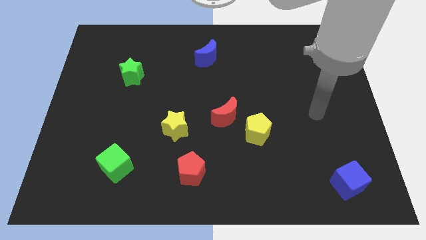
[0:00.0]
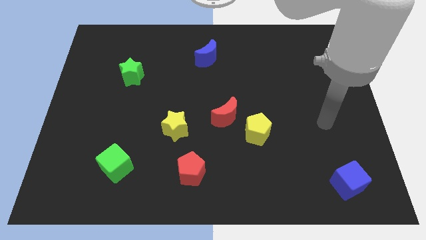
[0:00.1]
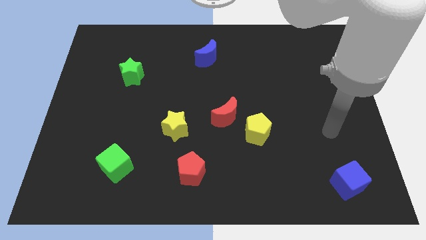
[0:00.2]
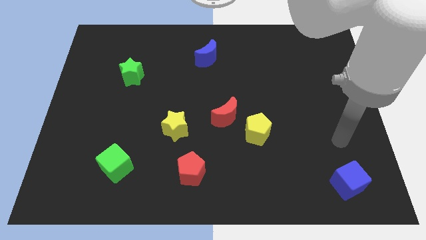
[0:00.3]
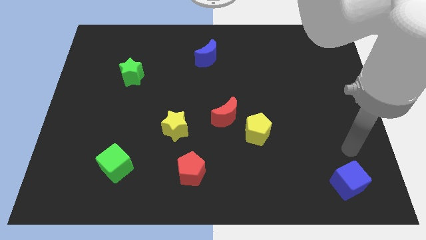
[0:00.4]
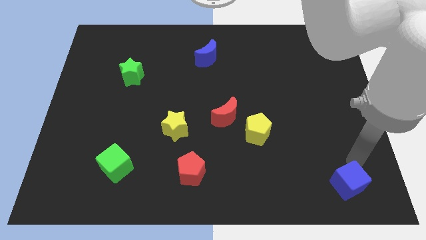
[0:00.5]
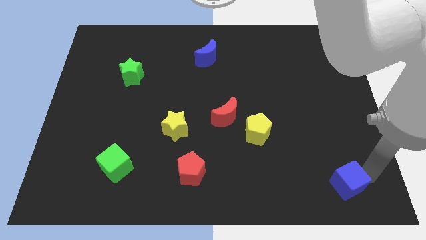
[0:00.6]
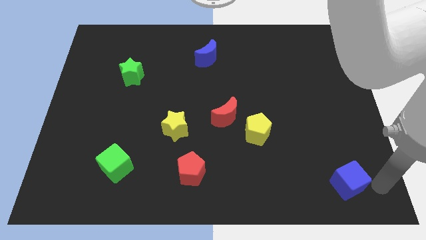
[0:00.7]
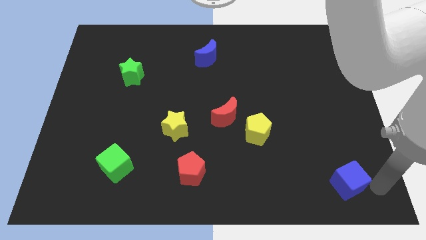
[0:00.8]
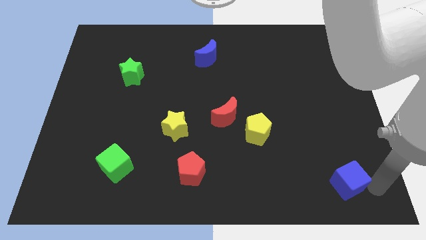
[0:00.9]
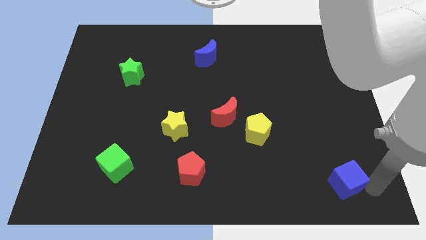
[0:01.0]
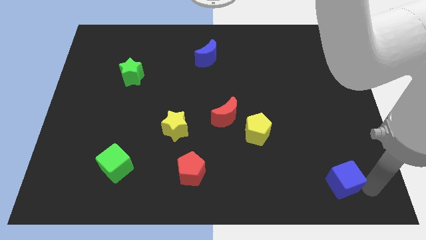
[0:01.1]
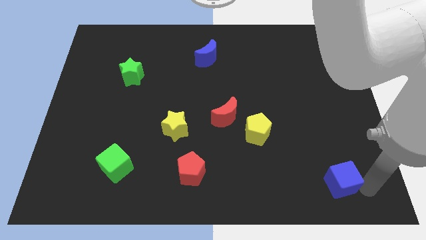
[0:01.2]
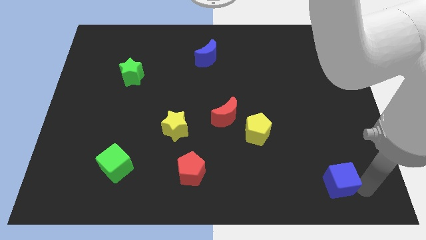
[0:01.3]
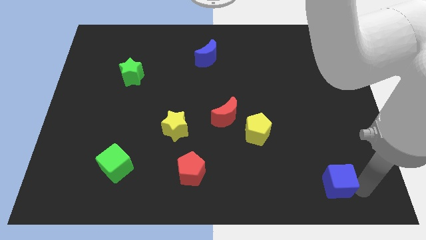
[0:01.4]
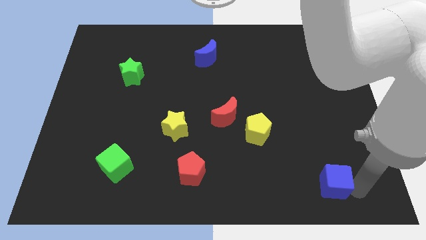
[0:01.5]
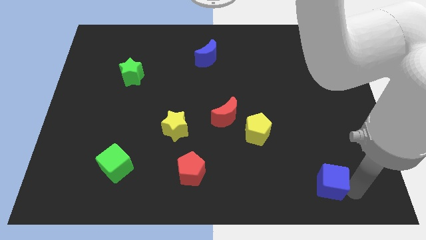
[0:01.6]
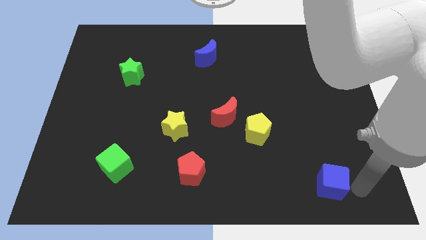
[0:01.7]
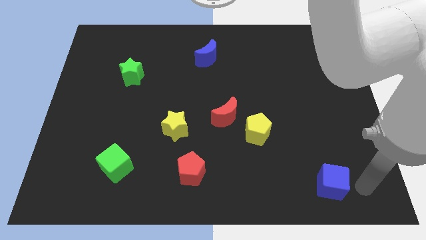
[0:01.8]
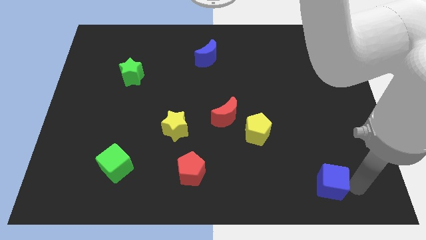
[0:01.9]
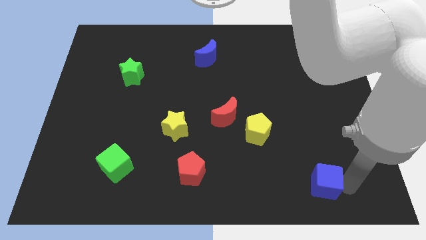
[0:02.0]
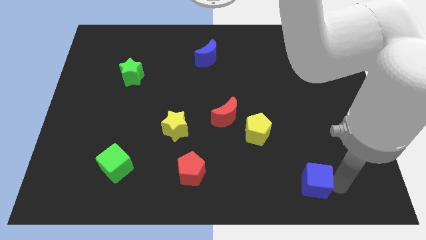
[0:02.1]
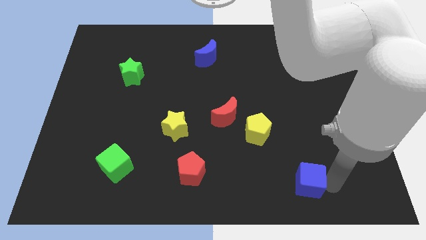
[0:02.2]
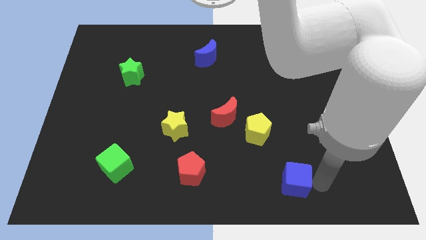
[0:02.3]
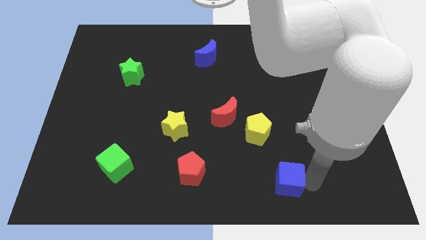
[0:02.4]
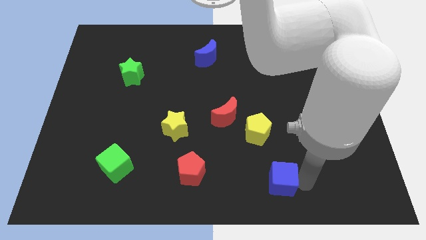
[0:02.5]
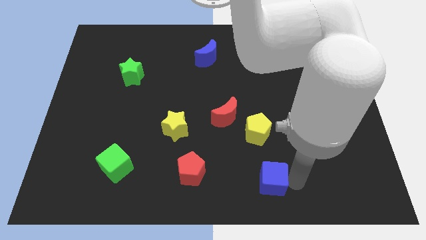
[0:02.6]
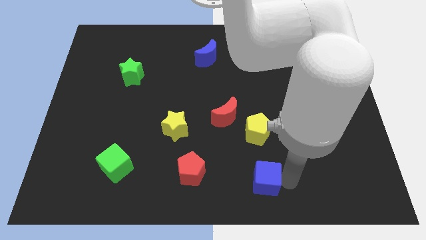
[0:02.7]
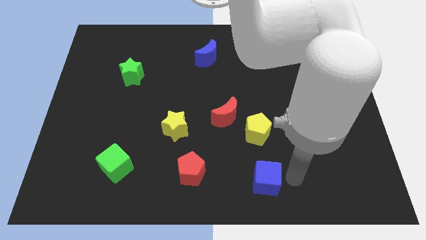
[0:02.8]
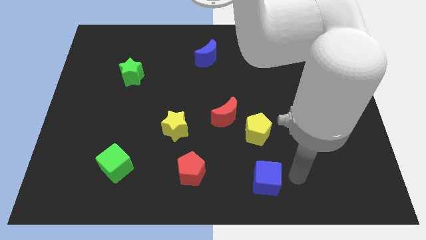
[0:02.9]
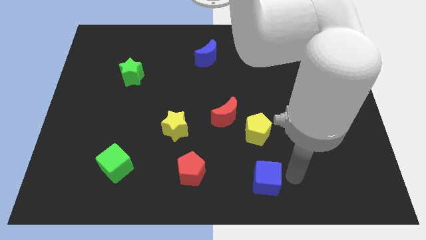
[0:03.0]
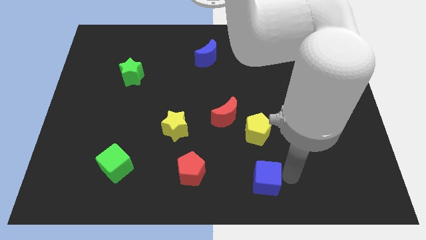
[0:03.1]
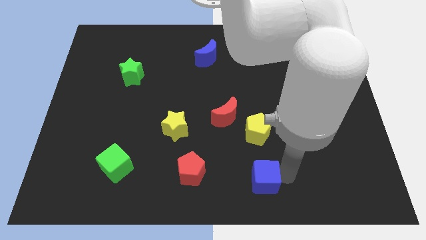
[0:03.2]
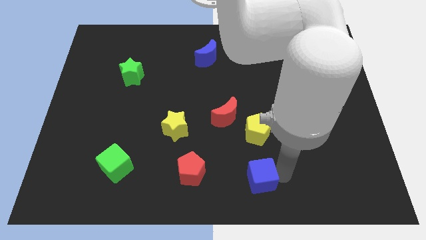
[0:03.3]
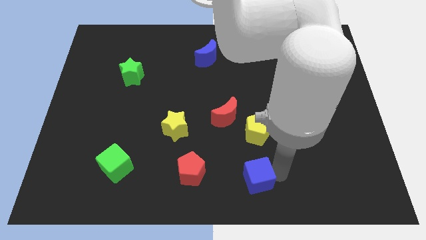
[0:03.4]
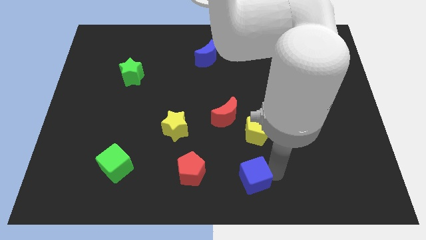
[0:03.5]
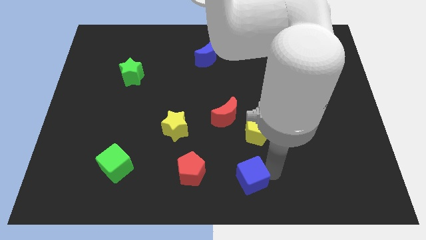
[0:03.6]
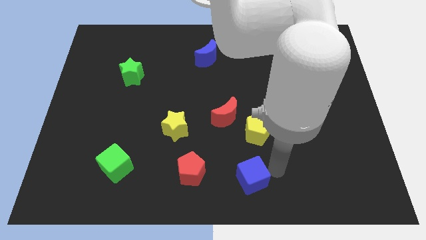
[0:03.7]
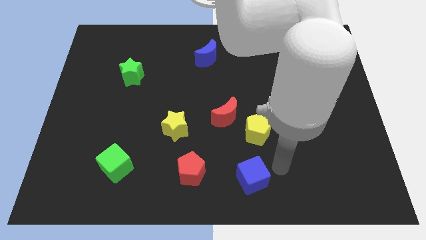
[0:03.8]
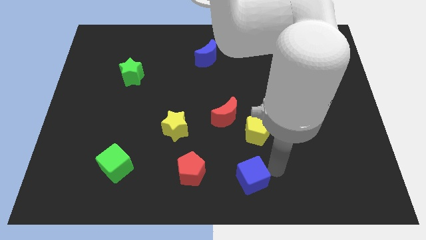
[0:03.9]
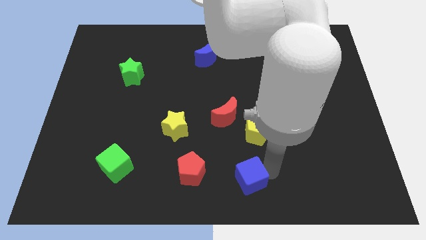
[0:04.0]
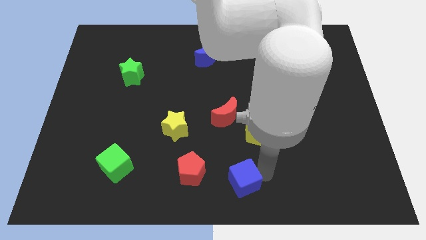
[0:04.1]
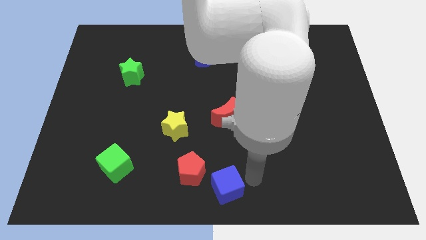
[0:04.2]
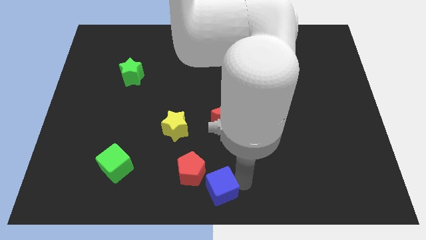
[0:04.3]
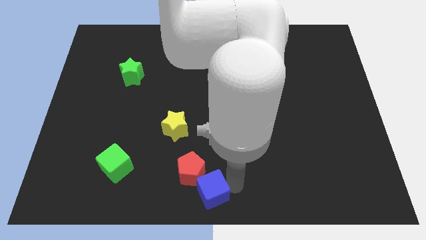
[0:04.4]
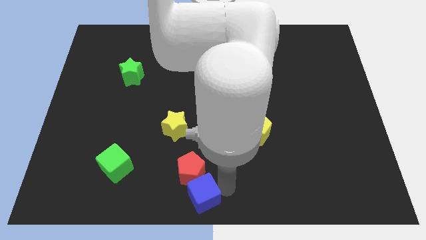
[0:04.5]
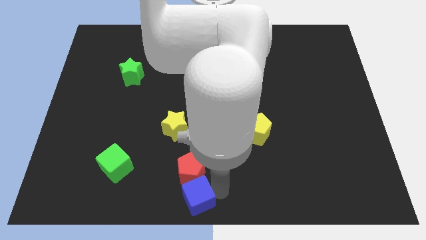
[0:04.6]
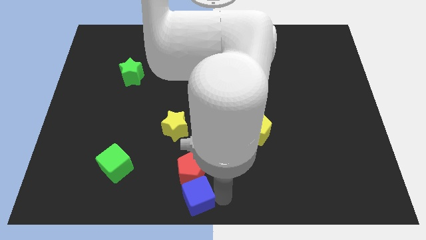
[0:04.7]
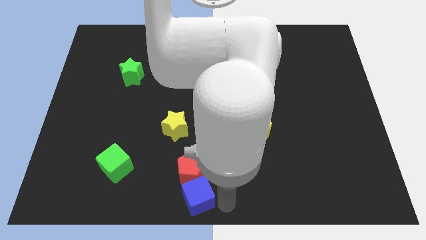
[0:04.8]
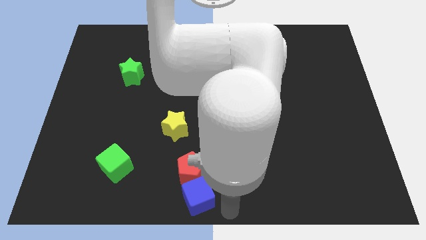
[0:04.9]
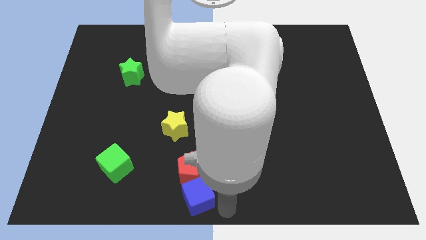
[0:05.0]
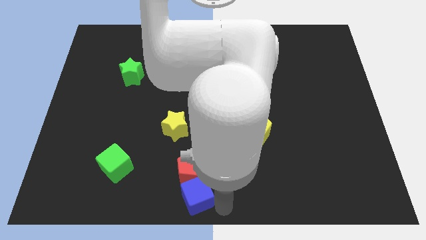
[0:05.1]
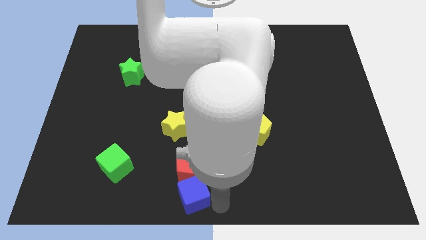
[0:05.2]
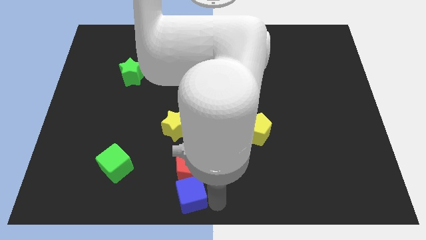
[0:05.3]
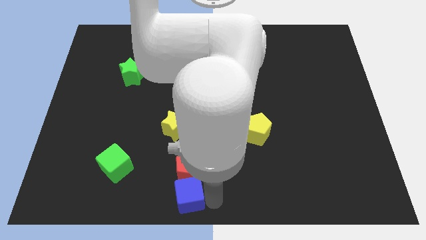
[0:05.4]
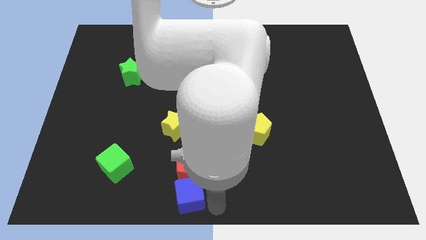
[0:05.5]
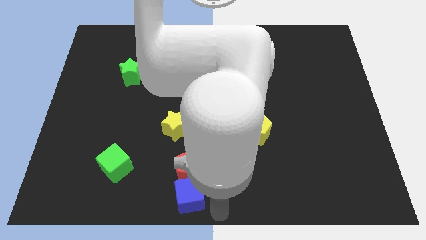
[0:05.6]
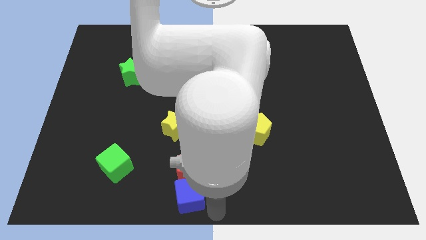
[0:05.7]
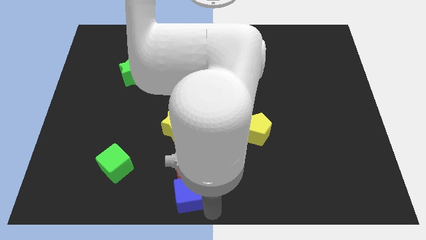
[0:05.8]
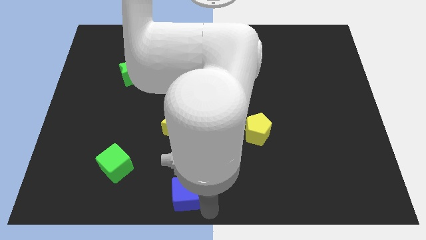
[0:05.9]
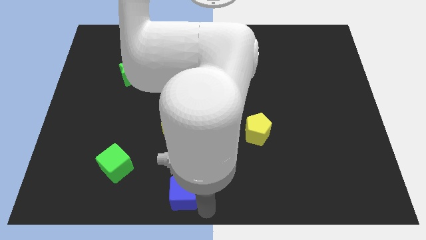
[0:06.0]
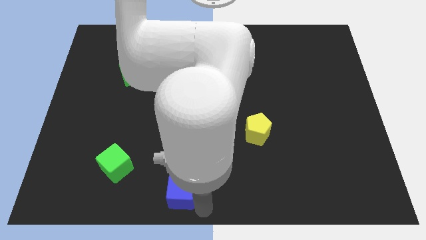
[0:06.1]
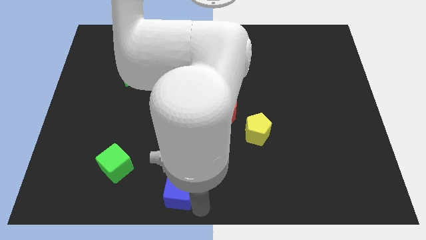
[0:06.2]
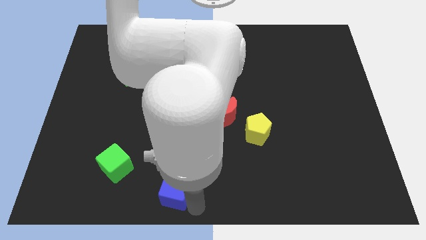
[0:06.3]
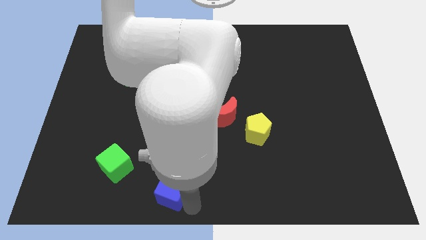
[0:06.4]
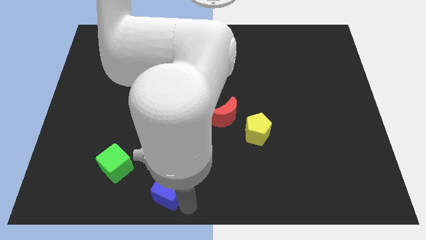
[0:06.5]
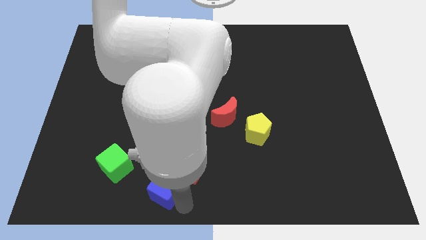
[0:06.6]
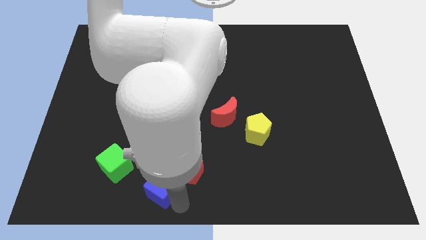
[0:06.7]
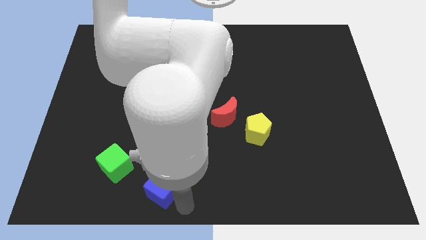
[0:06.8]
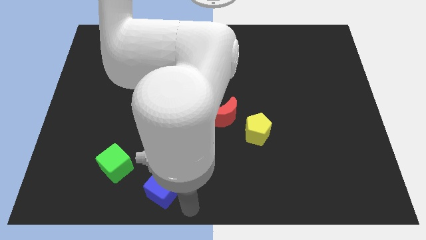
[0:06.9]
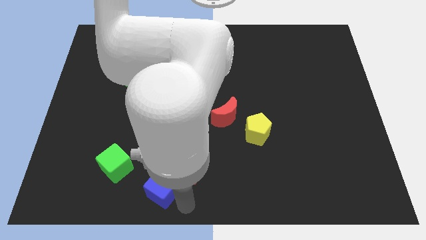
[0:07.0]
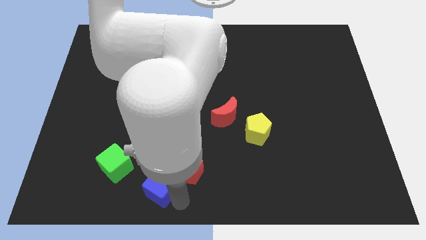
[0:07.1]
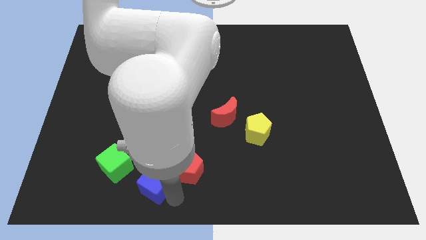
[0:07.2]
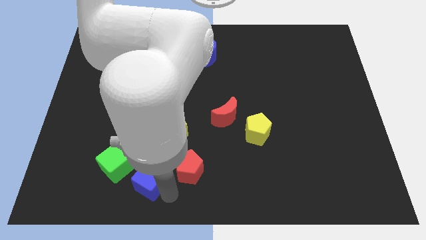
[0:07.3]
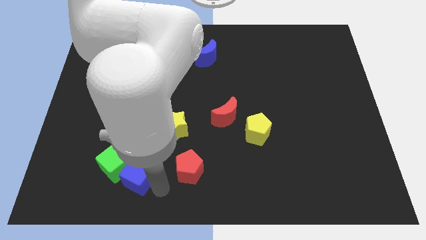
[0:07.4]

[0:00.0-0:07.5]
push the blue cube close to the green cube
